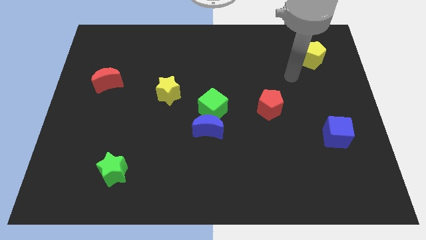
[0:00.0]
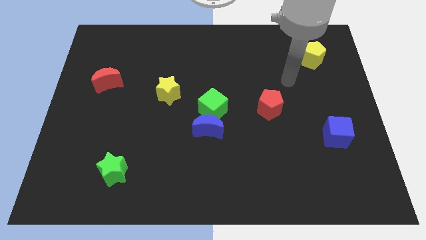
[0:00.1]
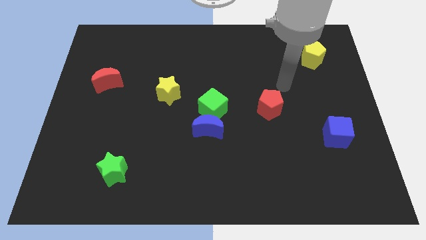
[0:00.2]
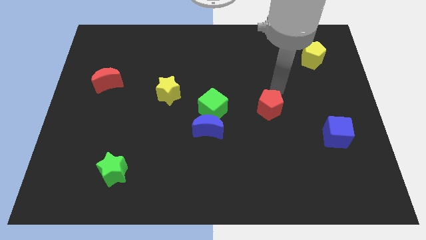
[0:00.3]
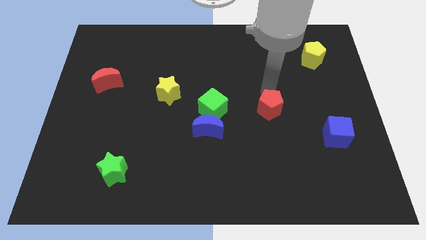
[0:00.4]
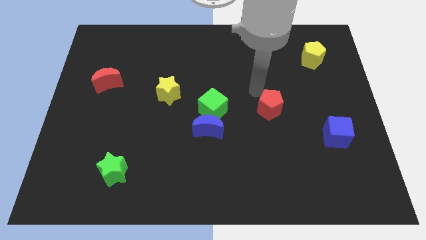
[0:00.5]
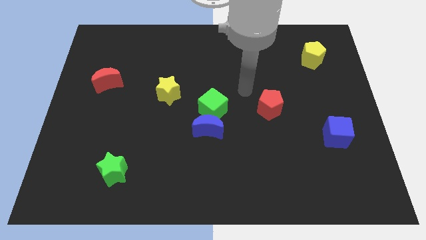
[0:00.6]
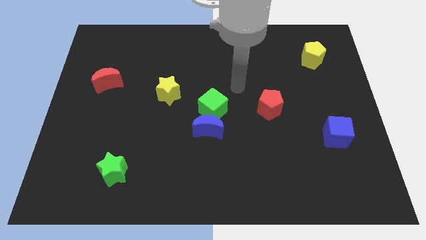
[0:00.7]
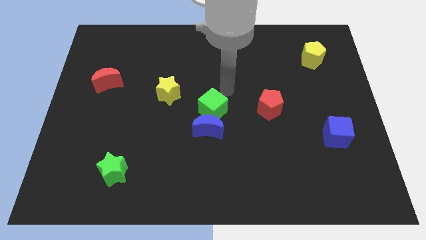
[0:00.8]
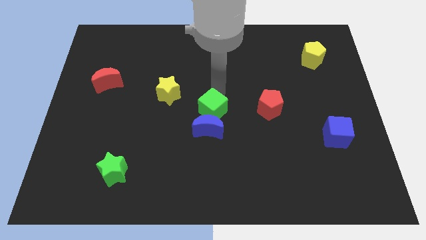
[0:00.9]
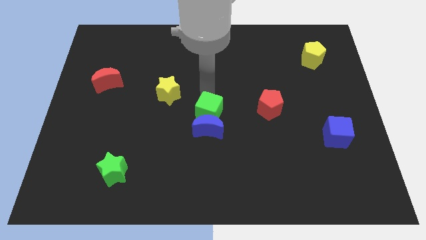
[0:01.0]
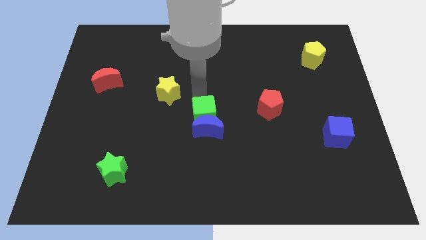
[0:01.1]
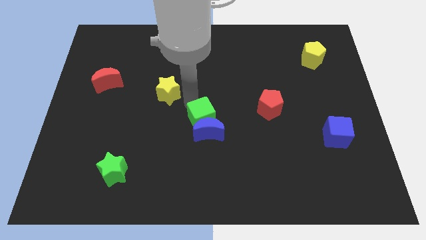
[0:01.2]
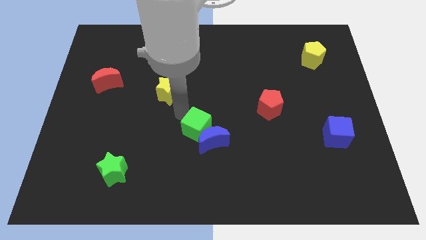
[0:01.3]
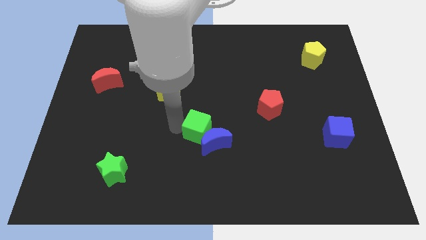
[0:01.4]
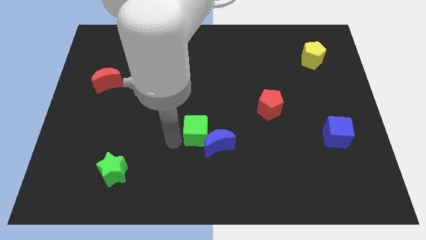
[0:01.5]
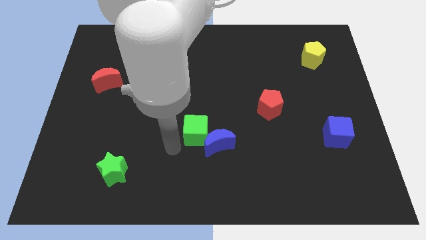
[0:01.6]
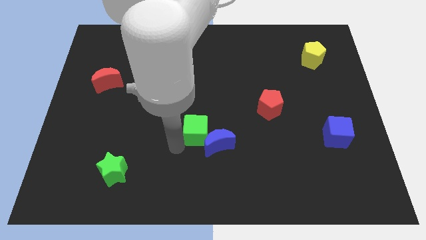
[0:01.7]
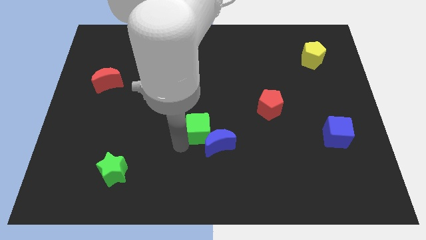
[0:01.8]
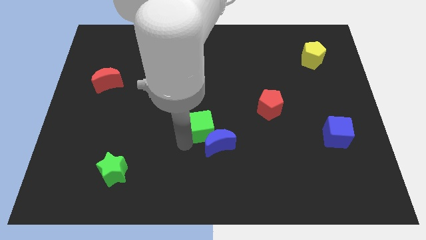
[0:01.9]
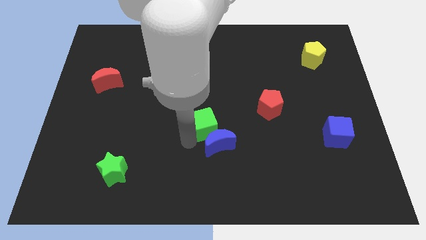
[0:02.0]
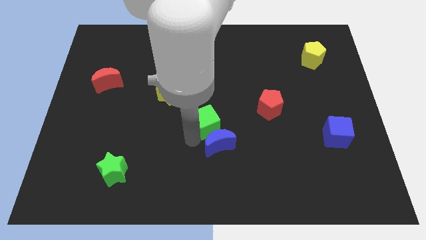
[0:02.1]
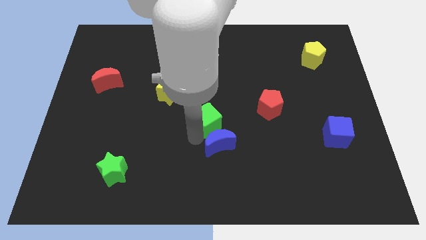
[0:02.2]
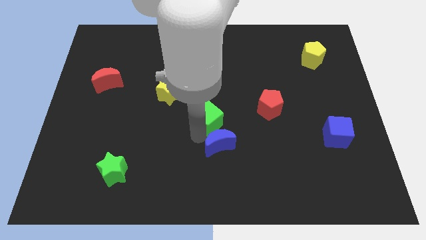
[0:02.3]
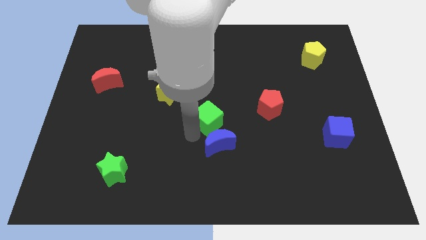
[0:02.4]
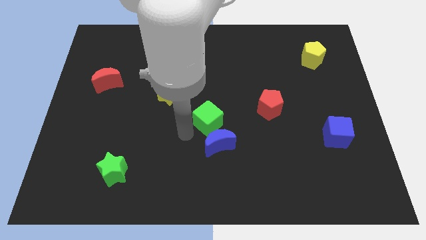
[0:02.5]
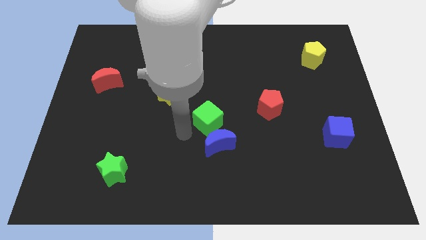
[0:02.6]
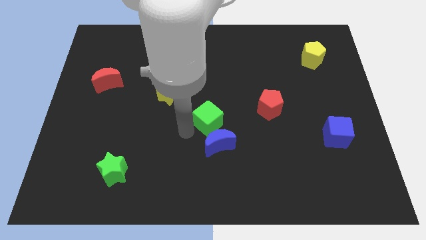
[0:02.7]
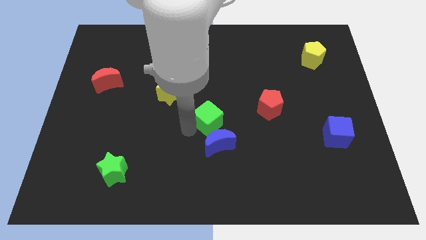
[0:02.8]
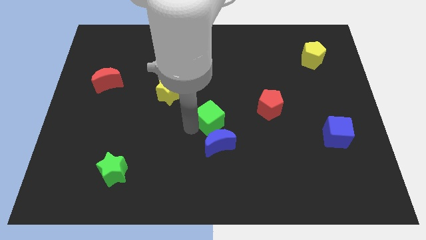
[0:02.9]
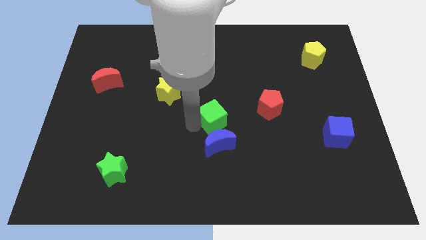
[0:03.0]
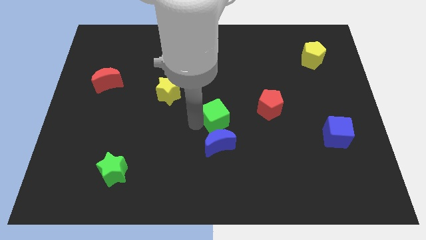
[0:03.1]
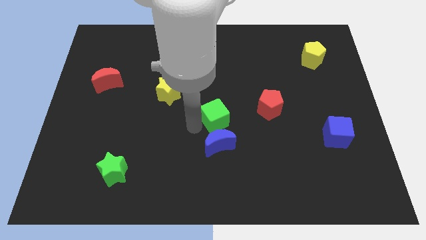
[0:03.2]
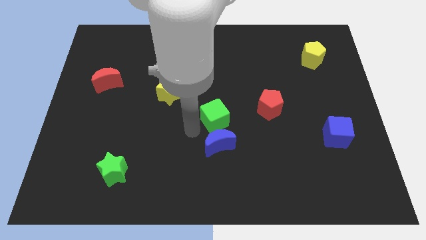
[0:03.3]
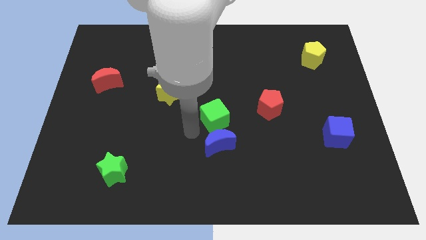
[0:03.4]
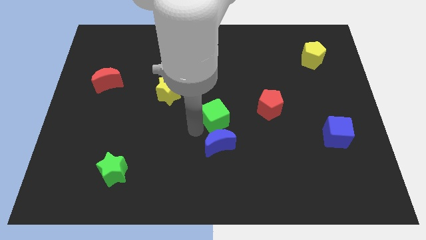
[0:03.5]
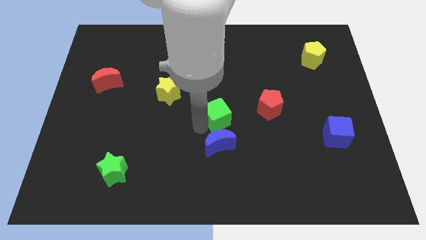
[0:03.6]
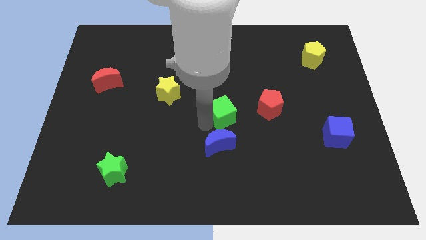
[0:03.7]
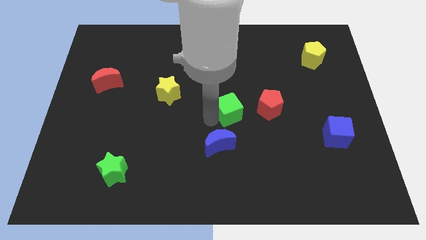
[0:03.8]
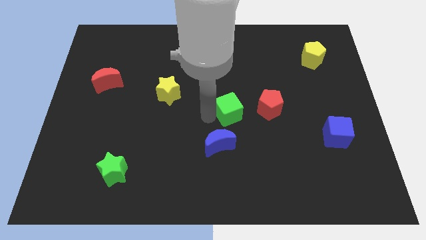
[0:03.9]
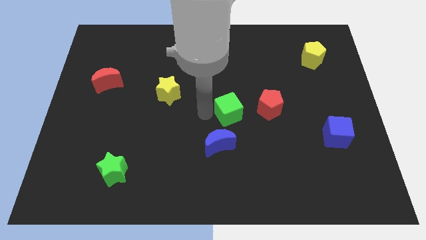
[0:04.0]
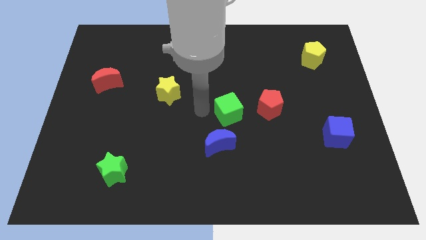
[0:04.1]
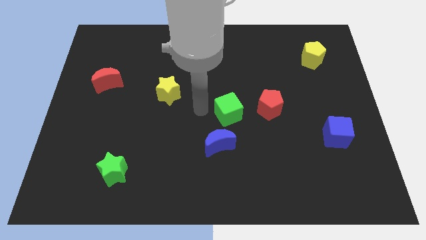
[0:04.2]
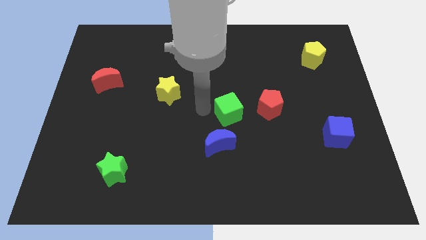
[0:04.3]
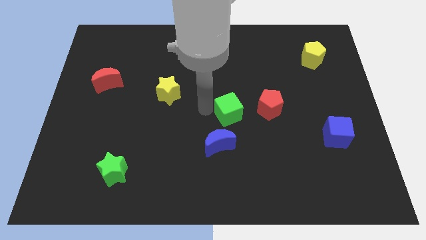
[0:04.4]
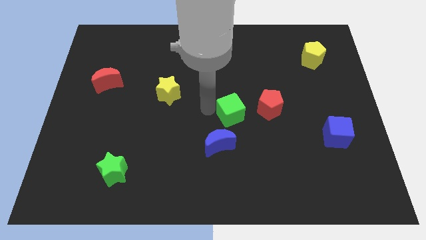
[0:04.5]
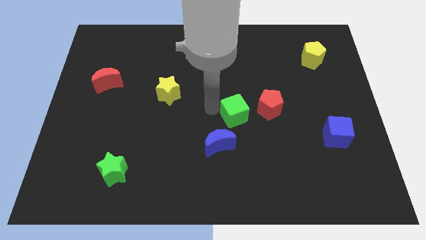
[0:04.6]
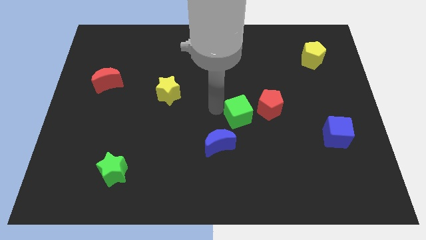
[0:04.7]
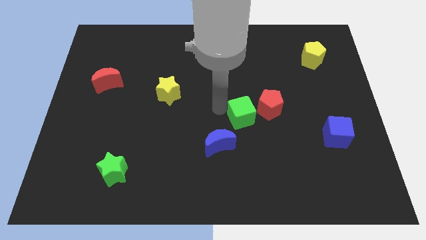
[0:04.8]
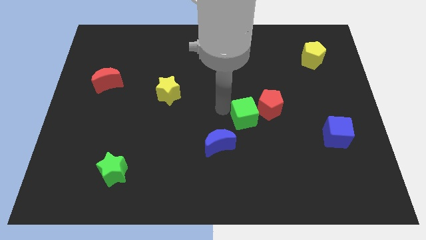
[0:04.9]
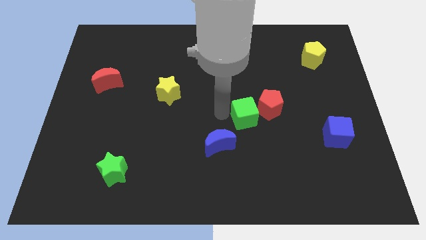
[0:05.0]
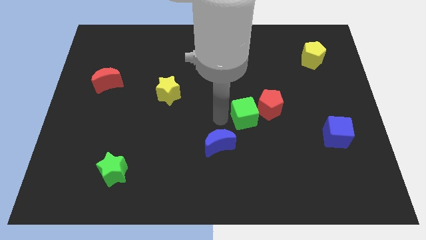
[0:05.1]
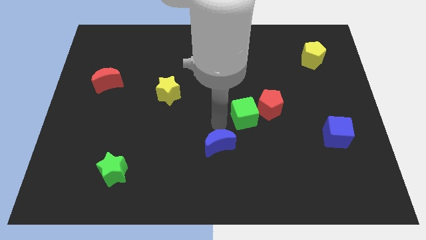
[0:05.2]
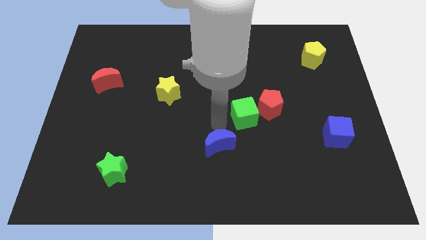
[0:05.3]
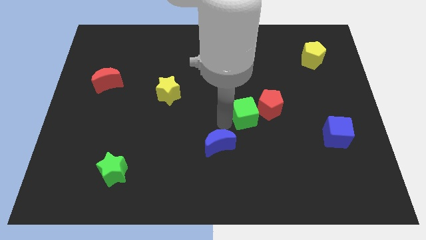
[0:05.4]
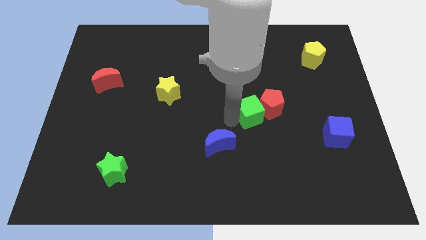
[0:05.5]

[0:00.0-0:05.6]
push the green cube to the red pentagon

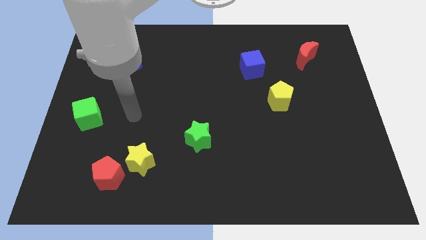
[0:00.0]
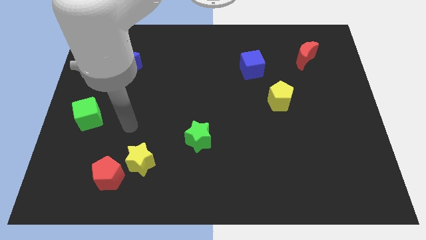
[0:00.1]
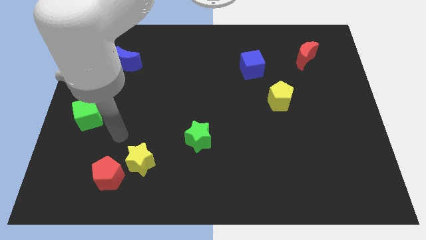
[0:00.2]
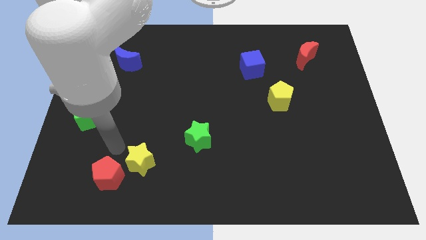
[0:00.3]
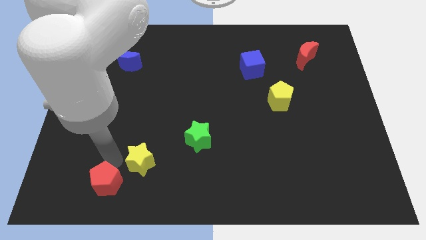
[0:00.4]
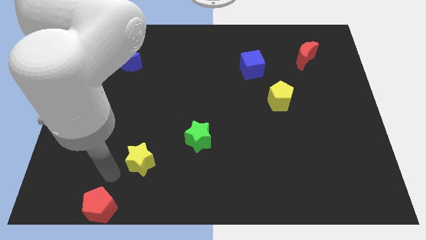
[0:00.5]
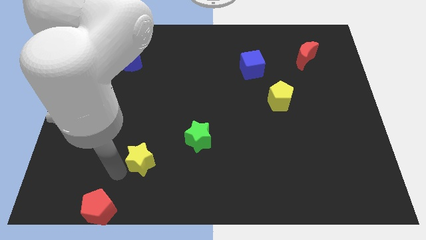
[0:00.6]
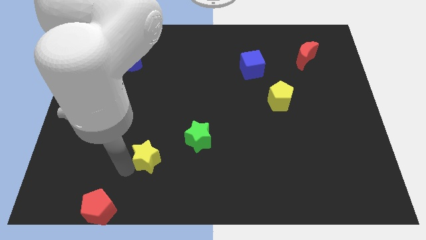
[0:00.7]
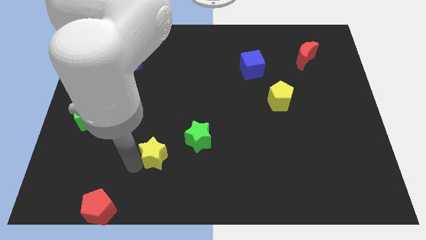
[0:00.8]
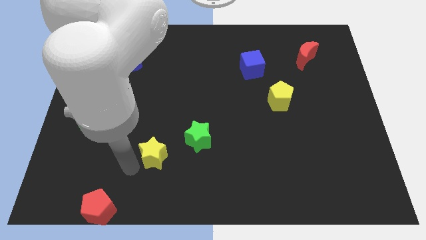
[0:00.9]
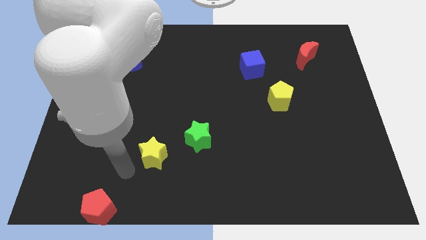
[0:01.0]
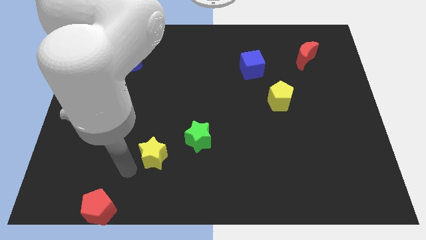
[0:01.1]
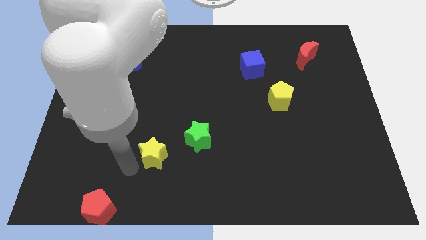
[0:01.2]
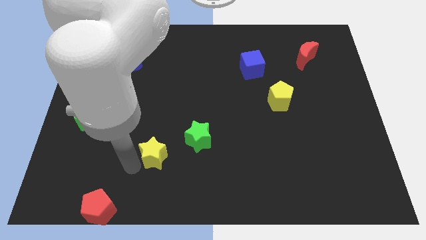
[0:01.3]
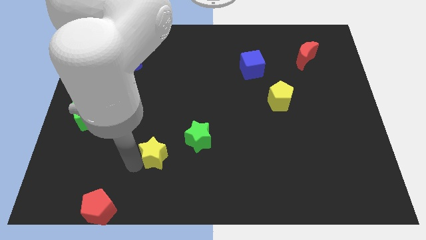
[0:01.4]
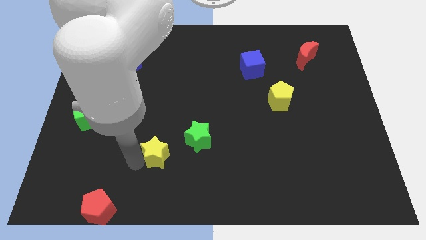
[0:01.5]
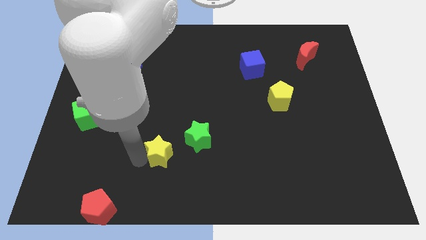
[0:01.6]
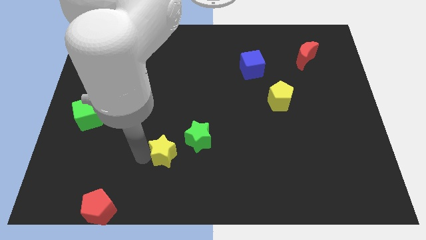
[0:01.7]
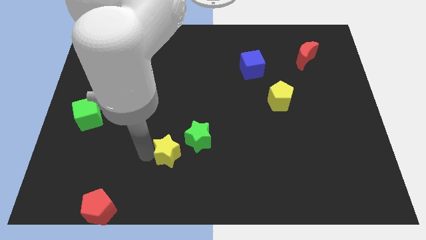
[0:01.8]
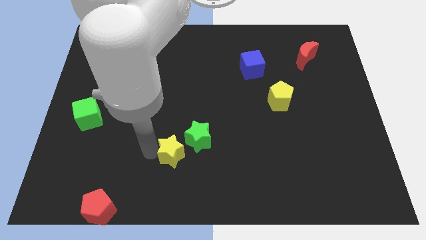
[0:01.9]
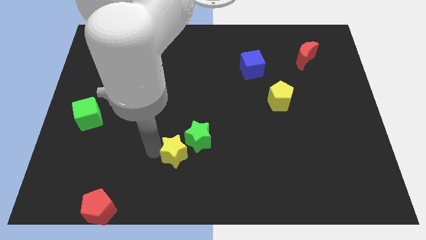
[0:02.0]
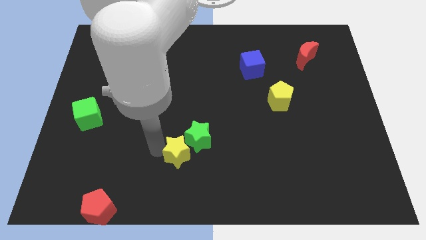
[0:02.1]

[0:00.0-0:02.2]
slide the yellow star towards the green star
